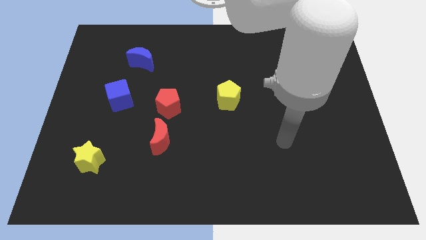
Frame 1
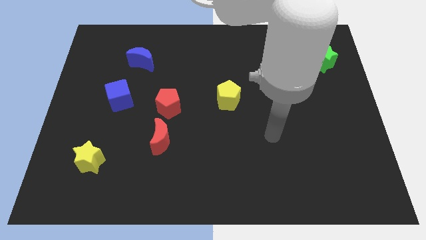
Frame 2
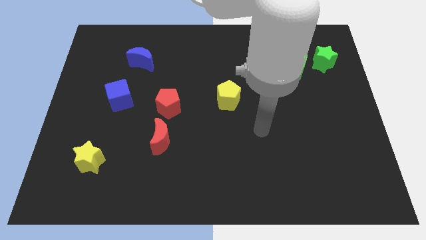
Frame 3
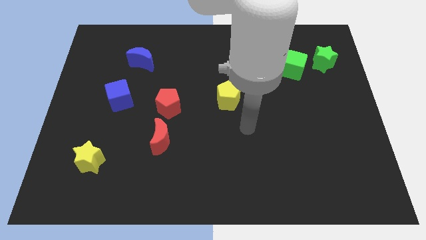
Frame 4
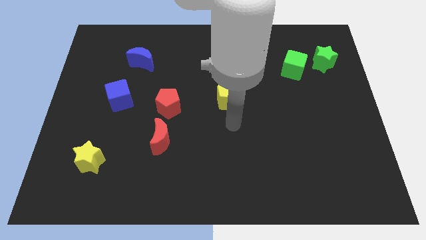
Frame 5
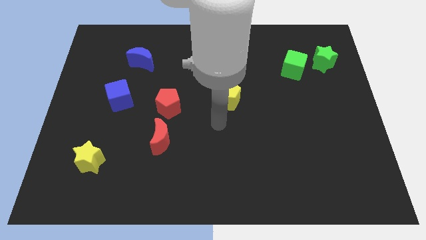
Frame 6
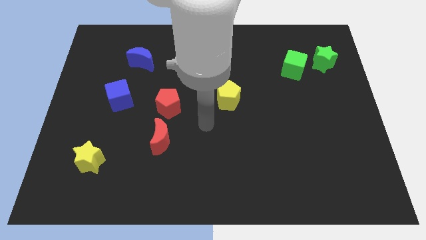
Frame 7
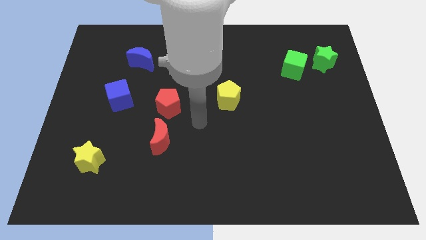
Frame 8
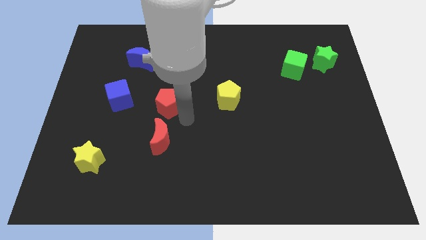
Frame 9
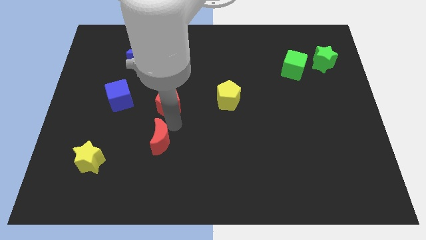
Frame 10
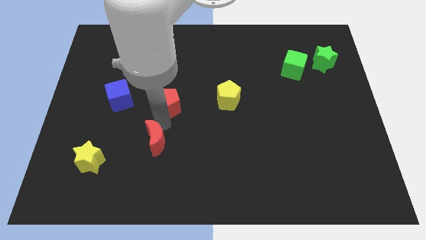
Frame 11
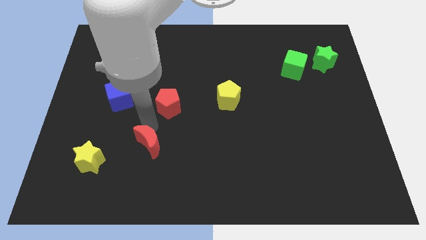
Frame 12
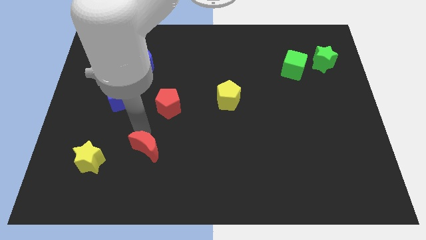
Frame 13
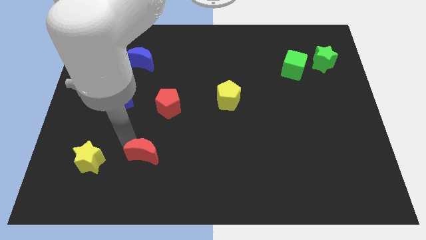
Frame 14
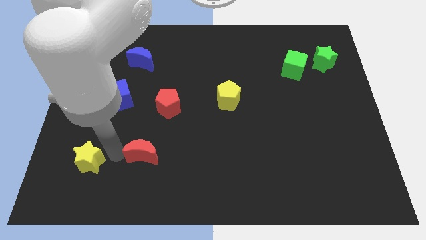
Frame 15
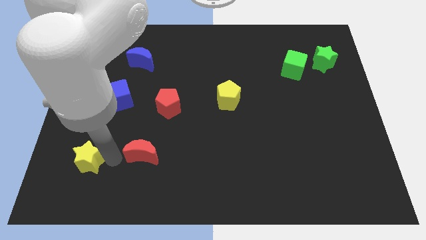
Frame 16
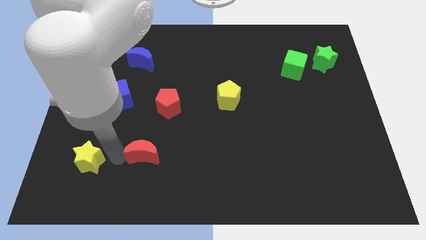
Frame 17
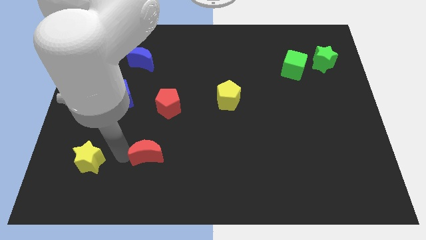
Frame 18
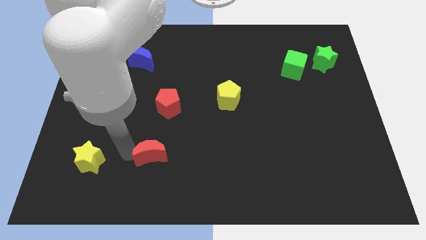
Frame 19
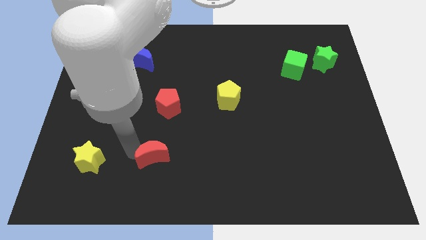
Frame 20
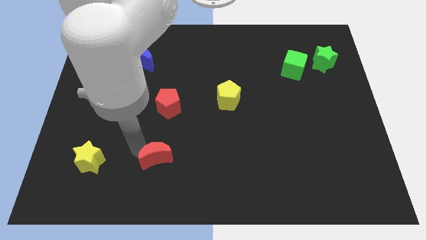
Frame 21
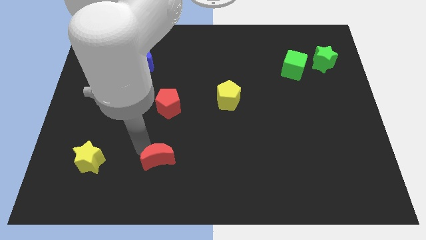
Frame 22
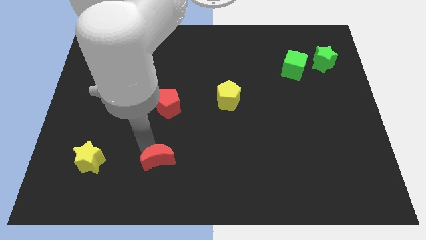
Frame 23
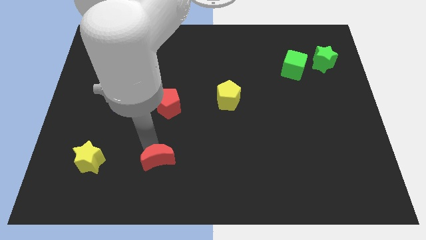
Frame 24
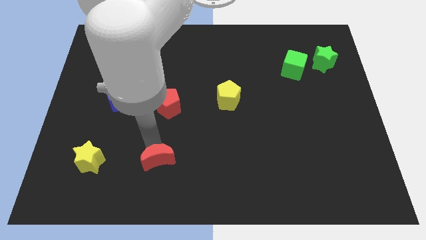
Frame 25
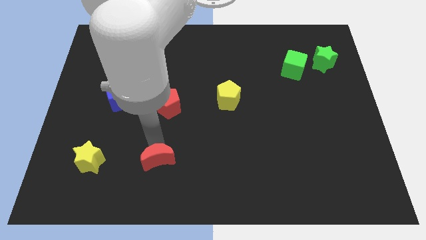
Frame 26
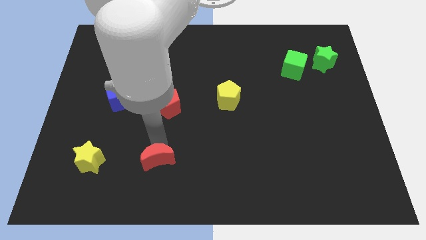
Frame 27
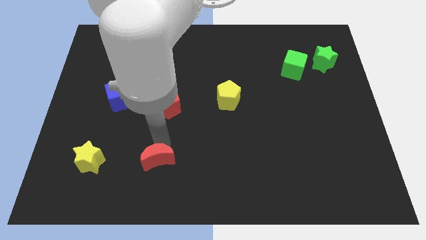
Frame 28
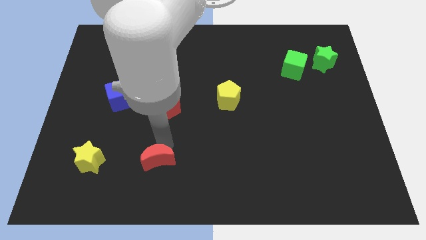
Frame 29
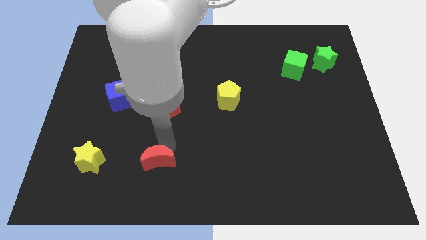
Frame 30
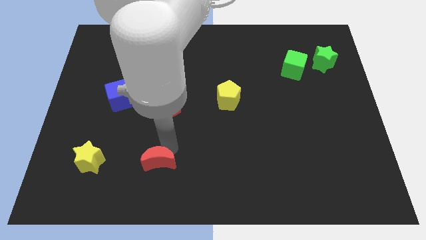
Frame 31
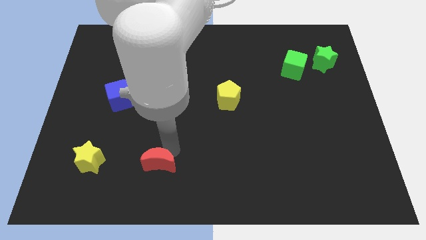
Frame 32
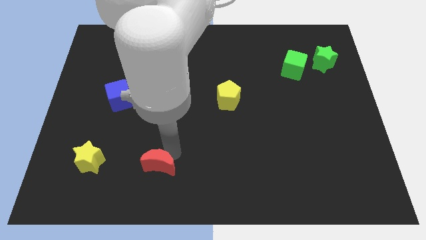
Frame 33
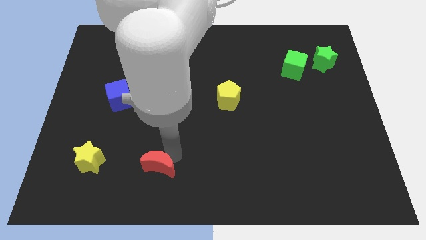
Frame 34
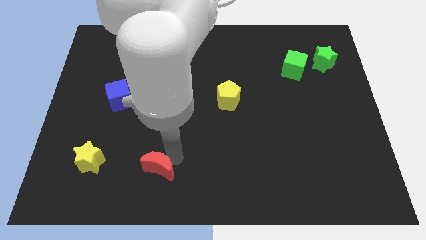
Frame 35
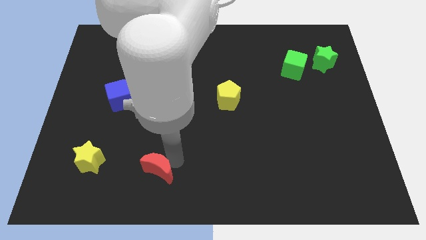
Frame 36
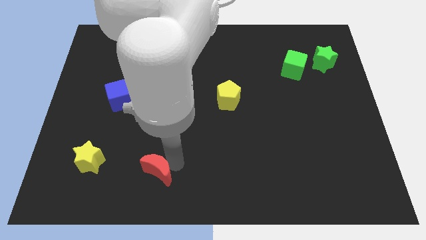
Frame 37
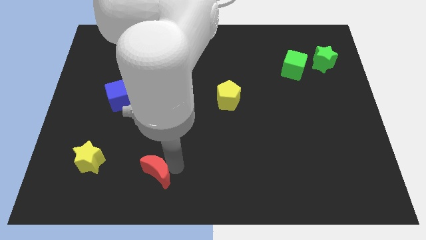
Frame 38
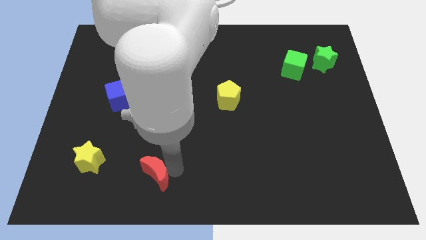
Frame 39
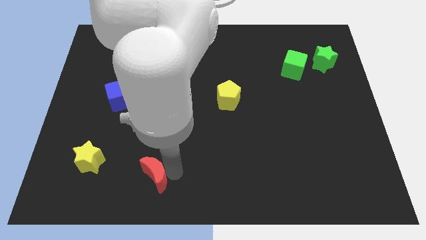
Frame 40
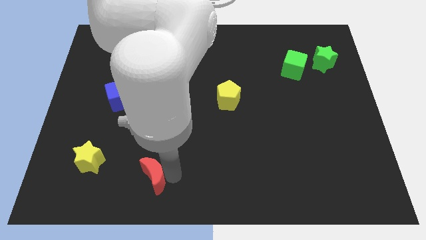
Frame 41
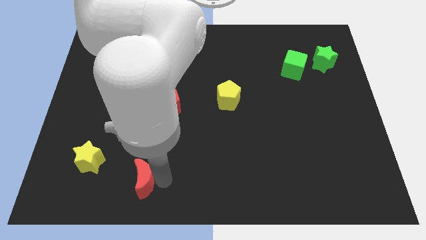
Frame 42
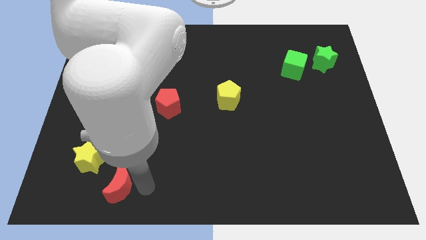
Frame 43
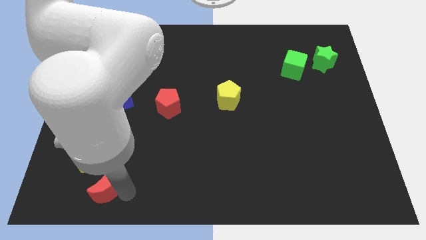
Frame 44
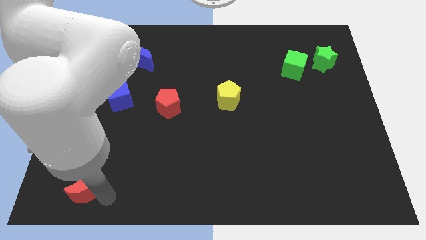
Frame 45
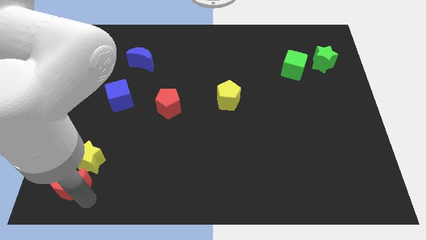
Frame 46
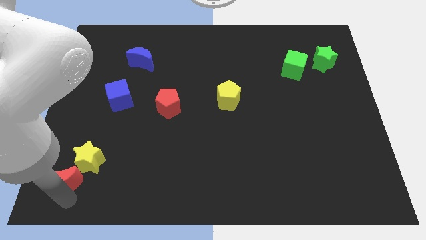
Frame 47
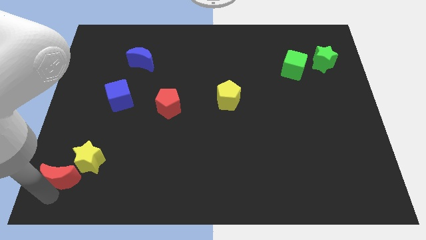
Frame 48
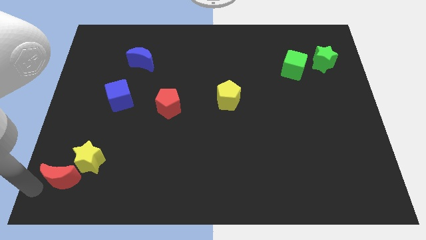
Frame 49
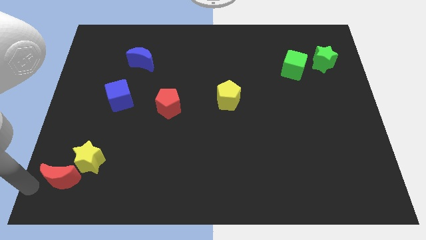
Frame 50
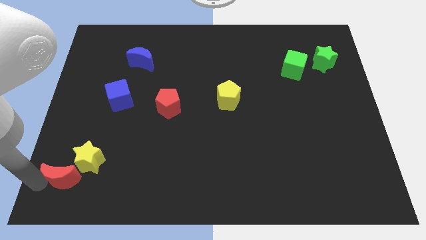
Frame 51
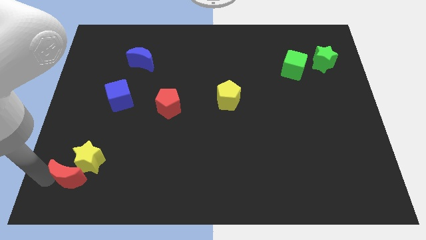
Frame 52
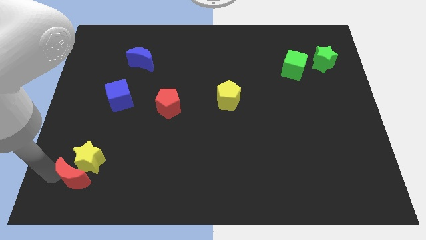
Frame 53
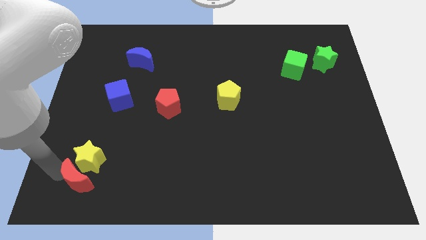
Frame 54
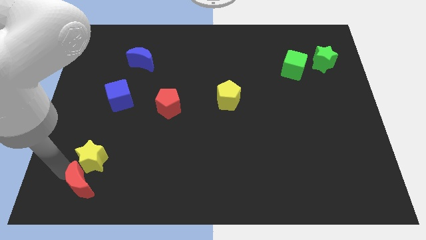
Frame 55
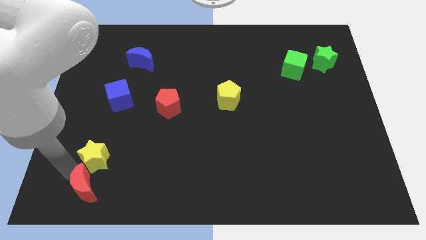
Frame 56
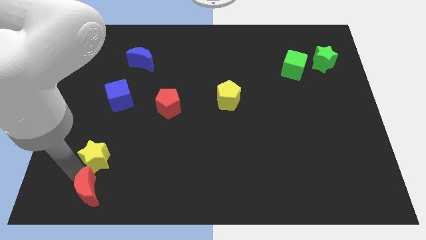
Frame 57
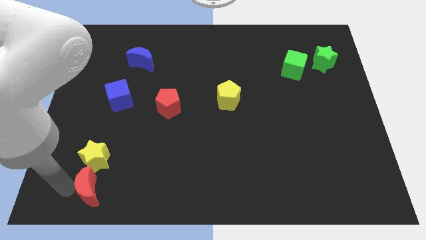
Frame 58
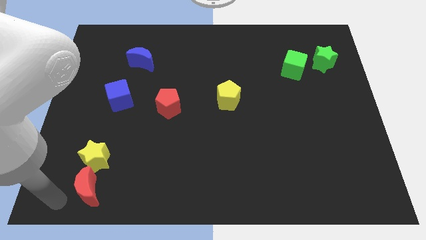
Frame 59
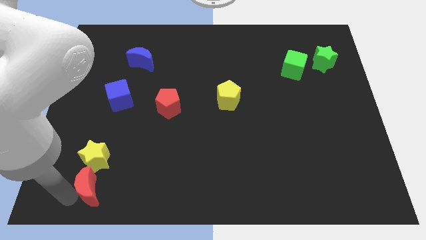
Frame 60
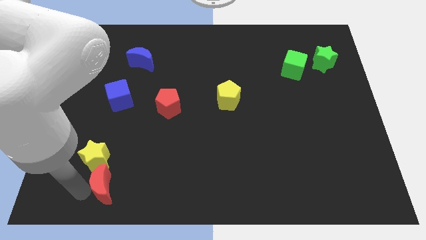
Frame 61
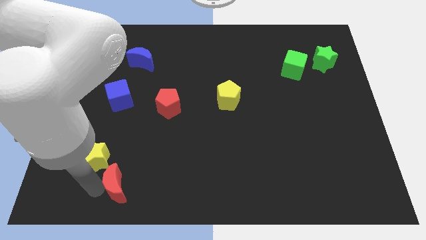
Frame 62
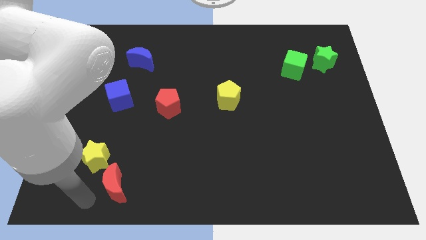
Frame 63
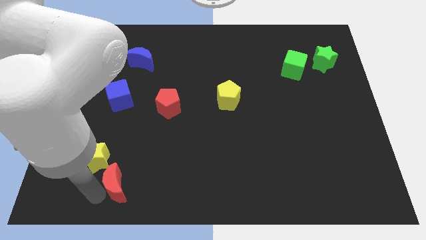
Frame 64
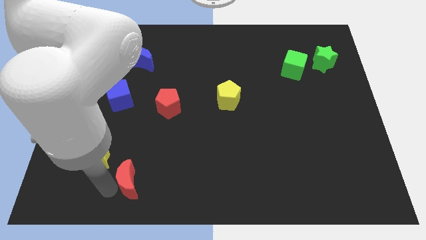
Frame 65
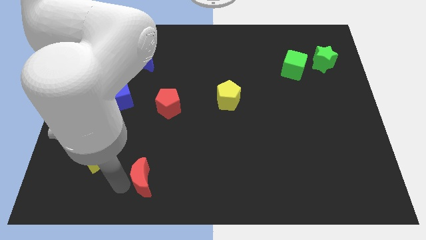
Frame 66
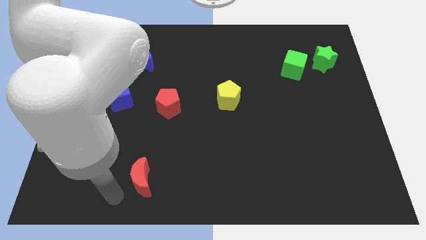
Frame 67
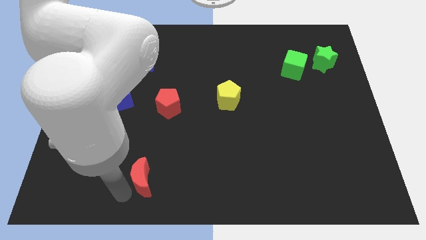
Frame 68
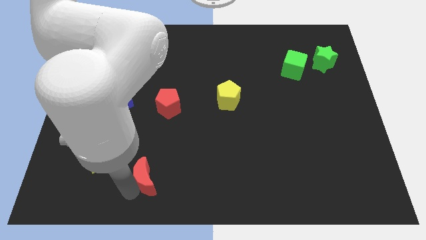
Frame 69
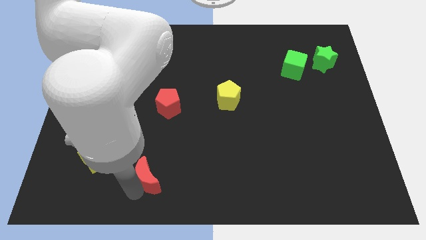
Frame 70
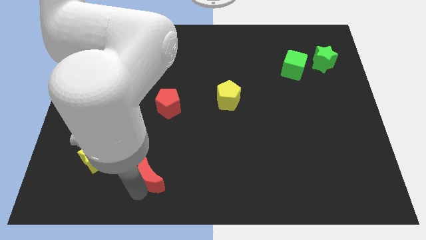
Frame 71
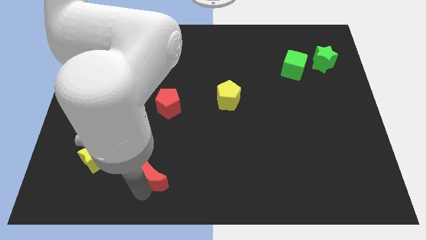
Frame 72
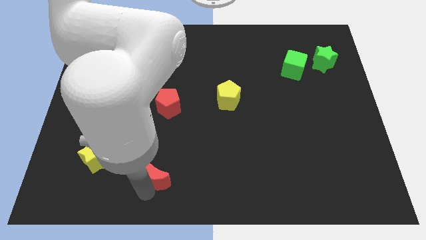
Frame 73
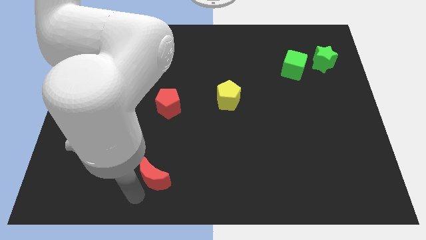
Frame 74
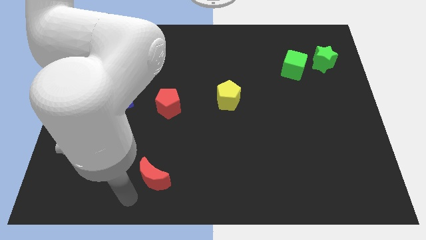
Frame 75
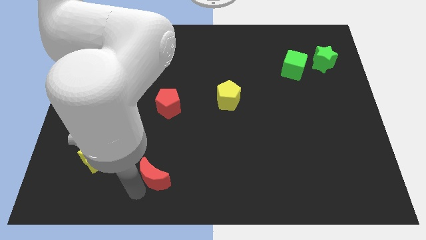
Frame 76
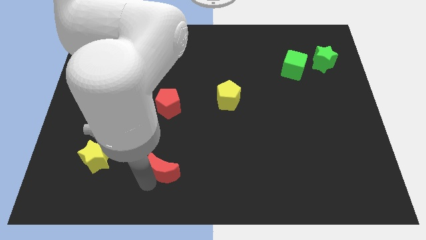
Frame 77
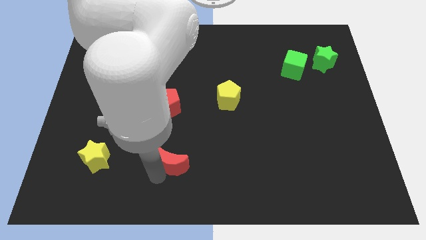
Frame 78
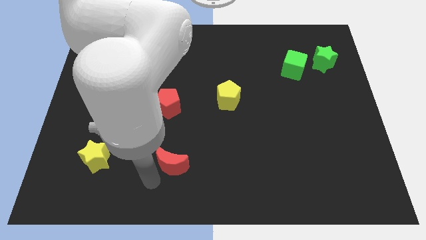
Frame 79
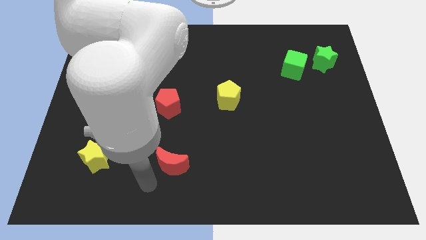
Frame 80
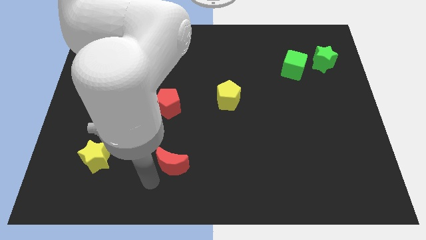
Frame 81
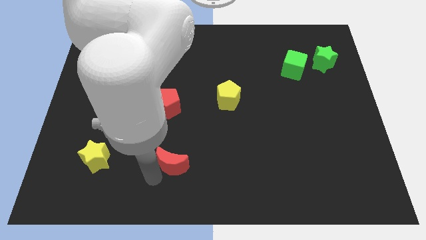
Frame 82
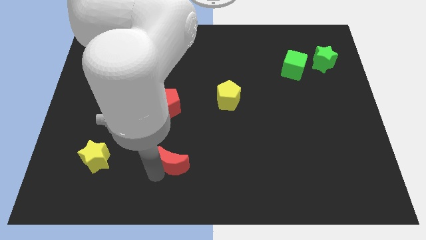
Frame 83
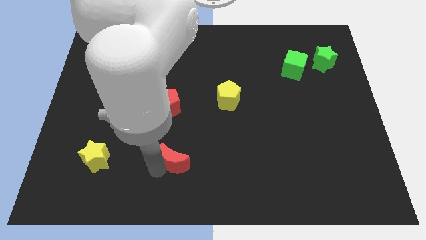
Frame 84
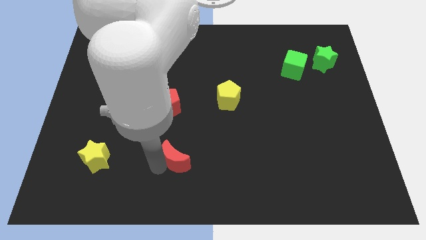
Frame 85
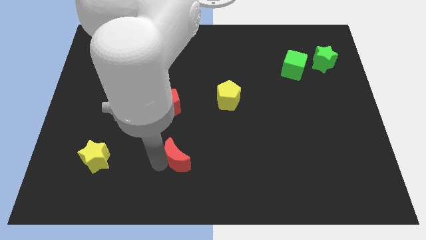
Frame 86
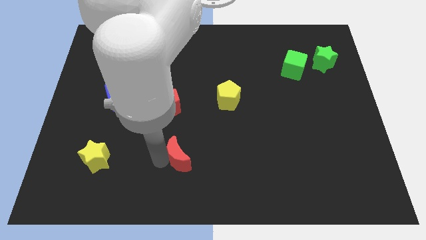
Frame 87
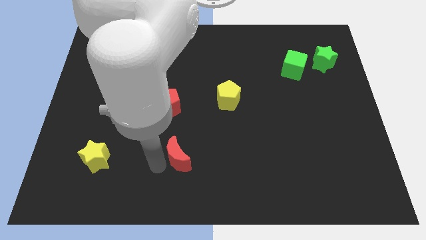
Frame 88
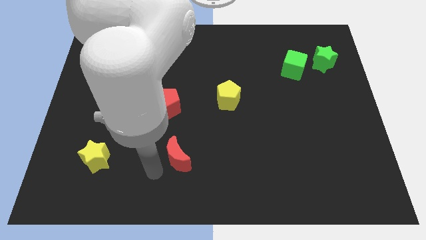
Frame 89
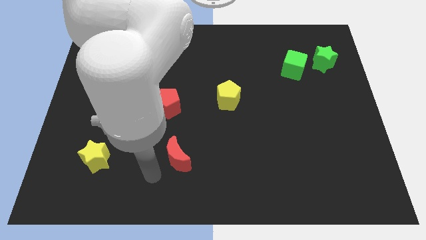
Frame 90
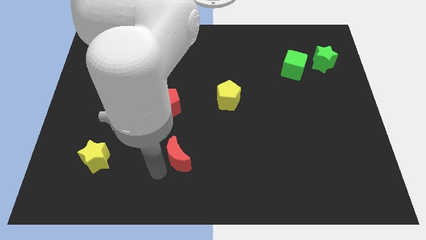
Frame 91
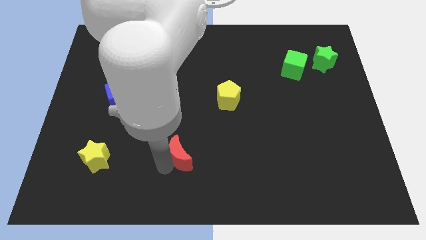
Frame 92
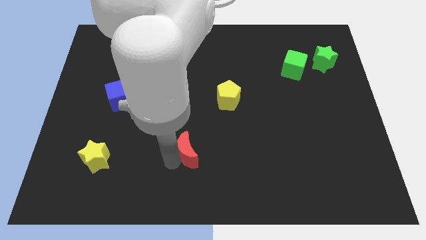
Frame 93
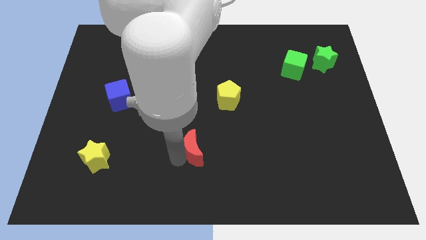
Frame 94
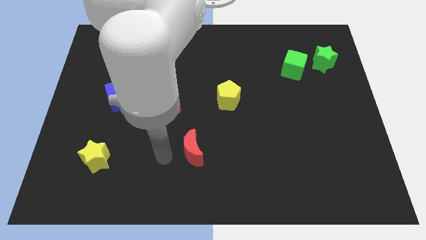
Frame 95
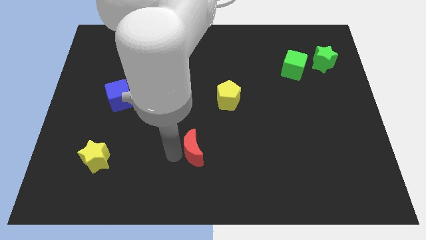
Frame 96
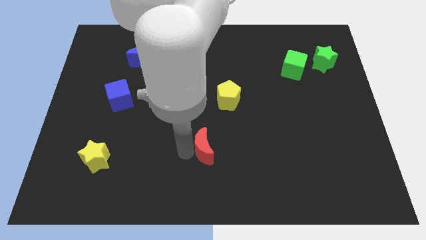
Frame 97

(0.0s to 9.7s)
move the red moon right slightly
